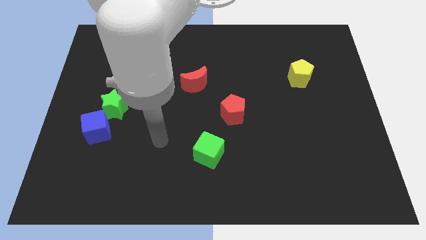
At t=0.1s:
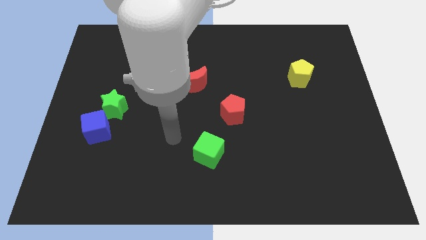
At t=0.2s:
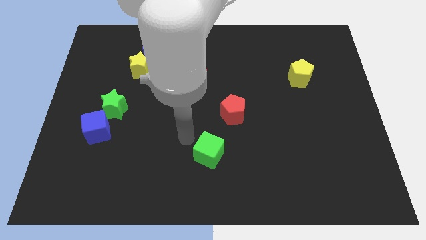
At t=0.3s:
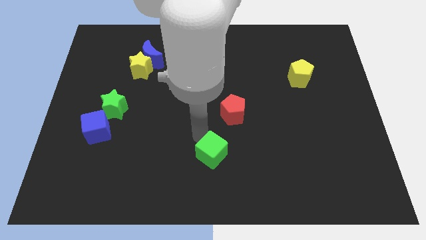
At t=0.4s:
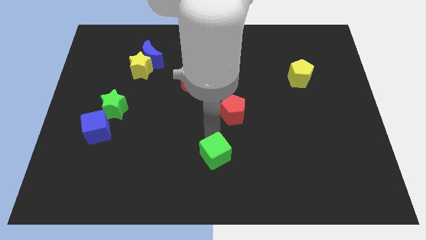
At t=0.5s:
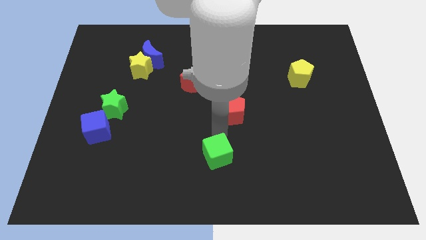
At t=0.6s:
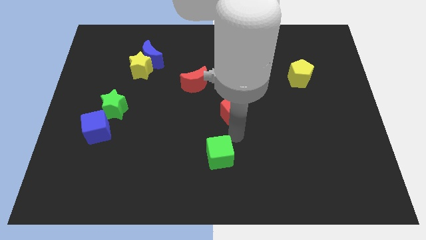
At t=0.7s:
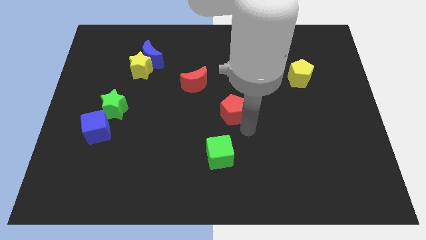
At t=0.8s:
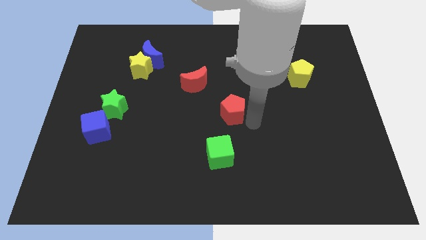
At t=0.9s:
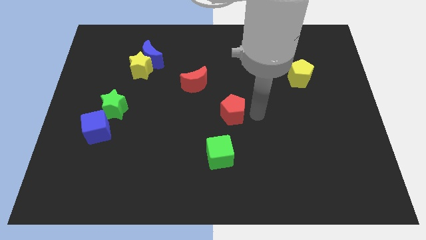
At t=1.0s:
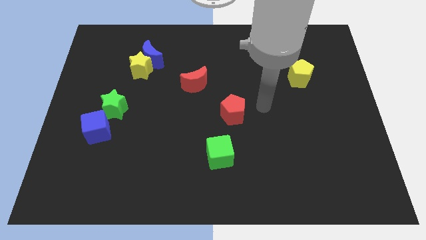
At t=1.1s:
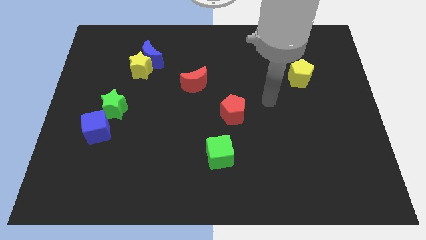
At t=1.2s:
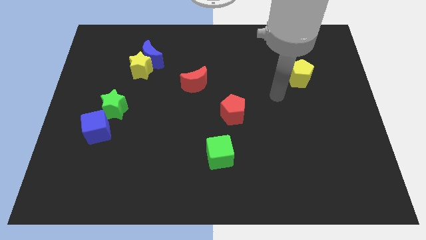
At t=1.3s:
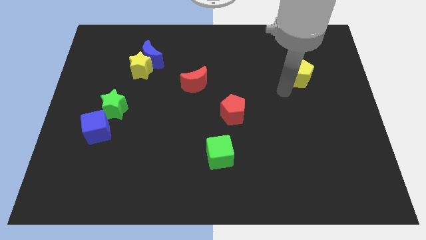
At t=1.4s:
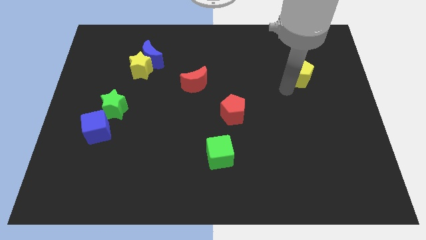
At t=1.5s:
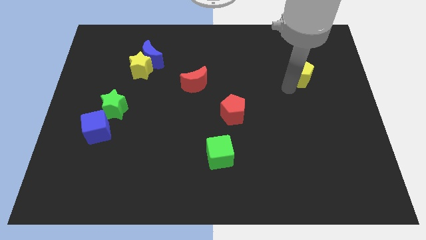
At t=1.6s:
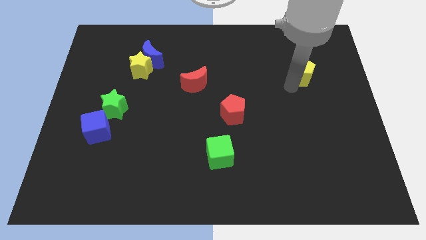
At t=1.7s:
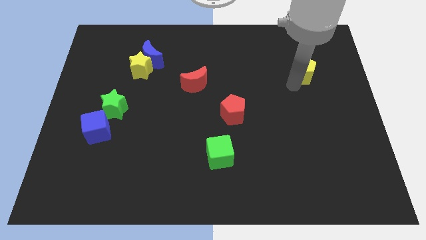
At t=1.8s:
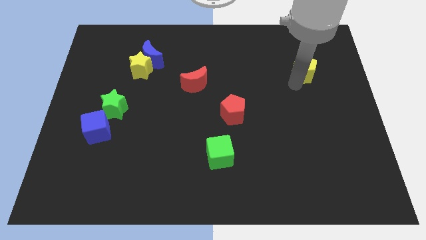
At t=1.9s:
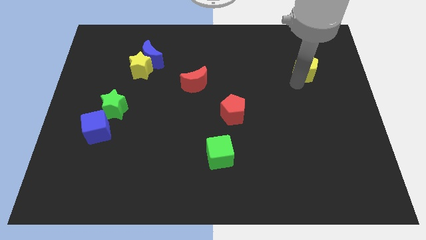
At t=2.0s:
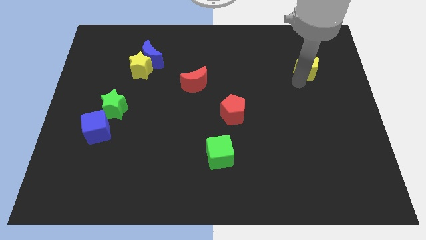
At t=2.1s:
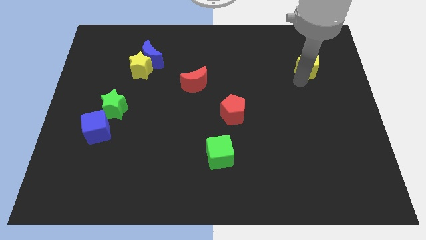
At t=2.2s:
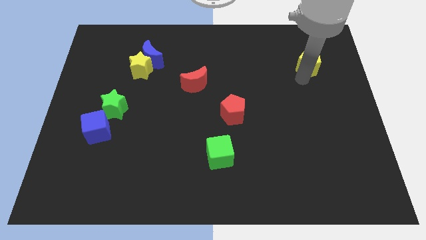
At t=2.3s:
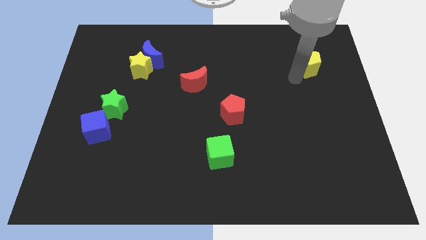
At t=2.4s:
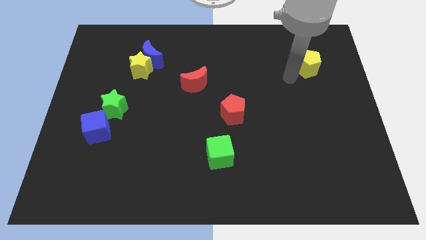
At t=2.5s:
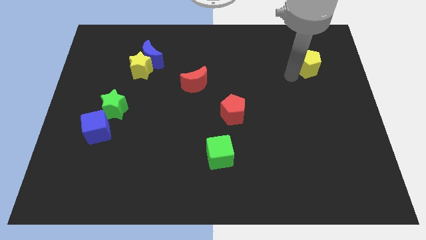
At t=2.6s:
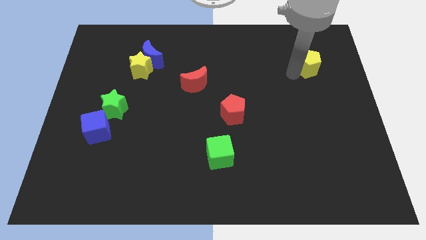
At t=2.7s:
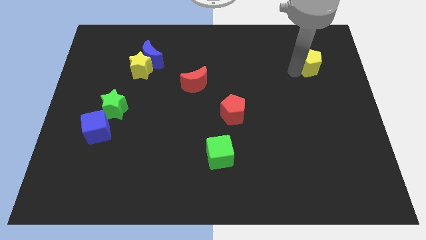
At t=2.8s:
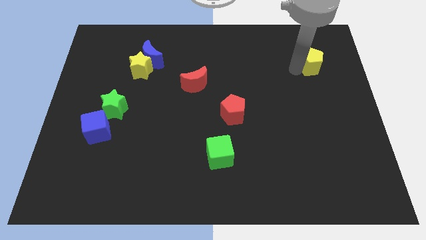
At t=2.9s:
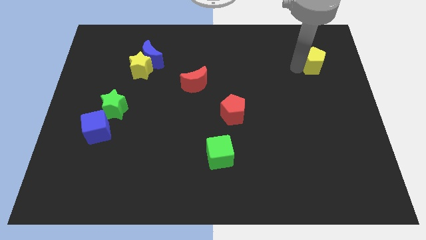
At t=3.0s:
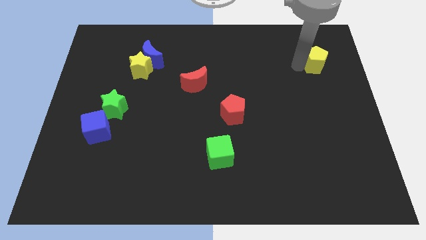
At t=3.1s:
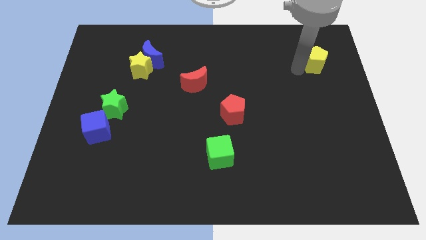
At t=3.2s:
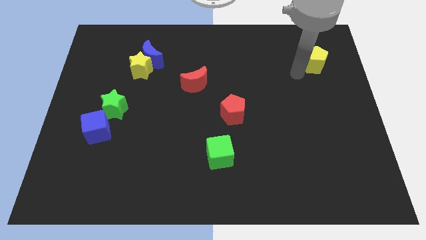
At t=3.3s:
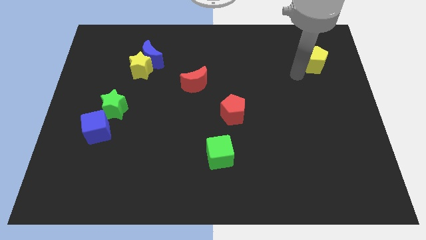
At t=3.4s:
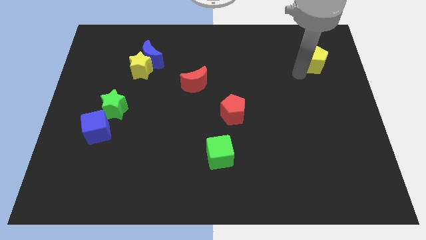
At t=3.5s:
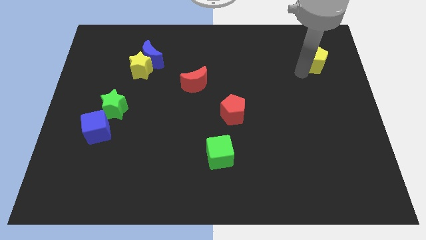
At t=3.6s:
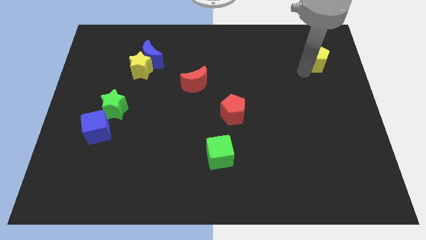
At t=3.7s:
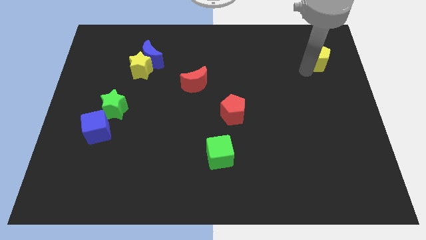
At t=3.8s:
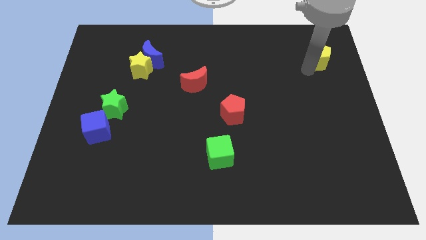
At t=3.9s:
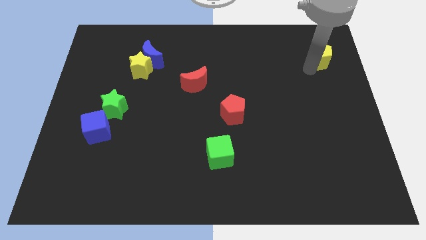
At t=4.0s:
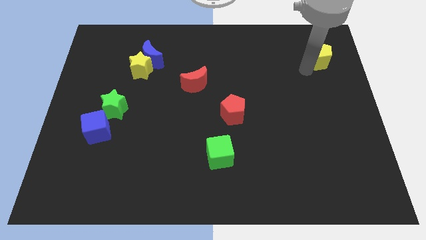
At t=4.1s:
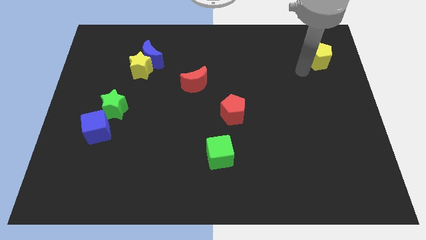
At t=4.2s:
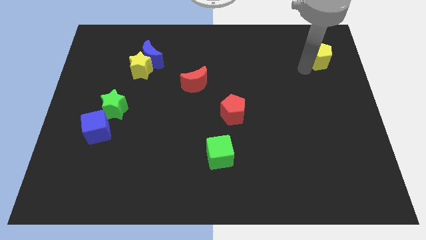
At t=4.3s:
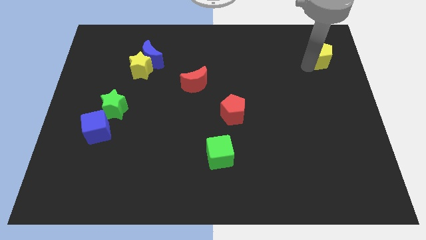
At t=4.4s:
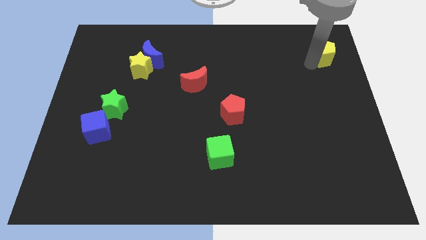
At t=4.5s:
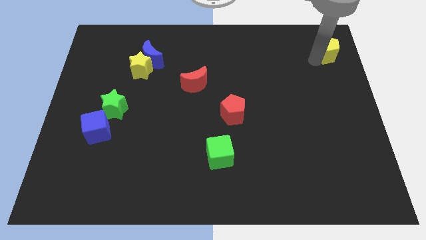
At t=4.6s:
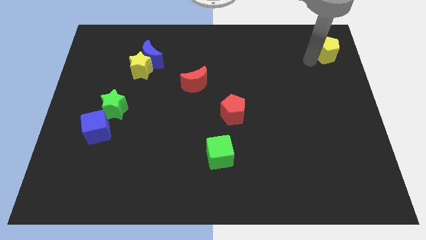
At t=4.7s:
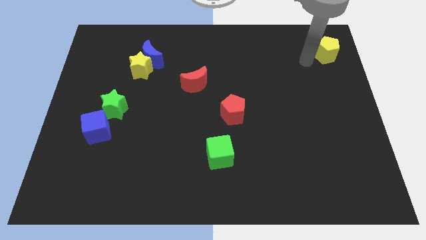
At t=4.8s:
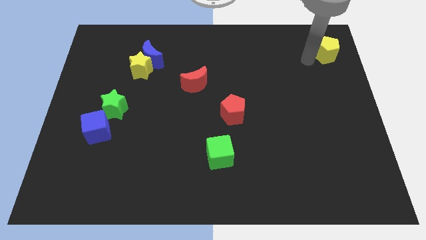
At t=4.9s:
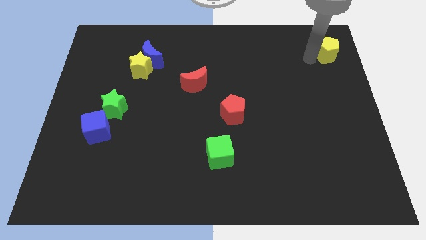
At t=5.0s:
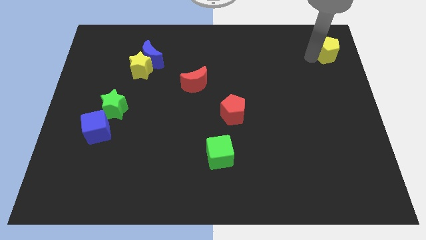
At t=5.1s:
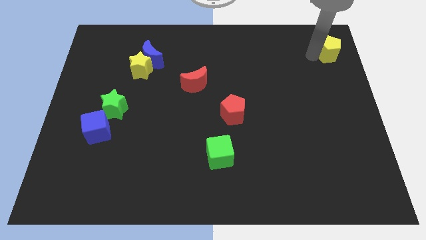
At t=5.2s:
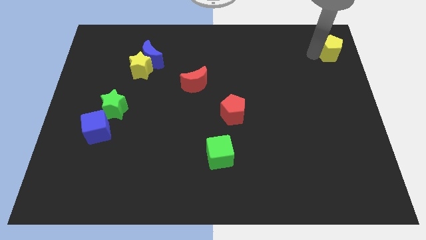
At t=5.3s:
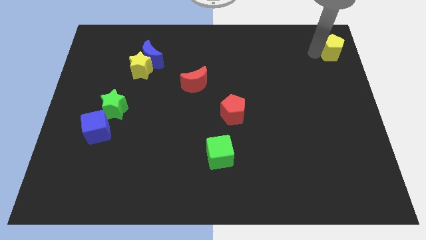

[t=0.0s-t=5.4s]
slide the yellow pentagon to the top right

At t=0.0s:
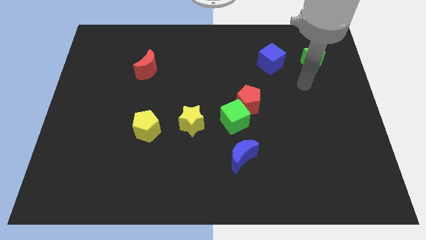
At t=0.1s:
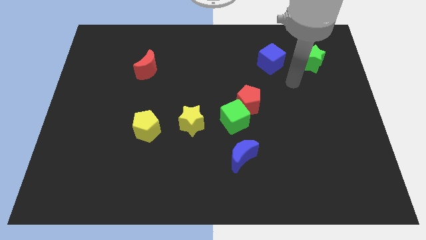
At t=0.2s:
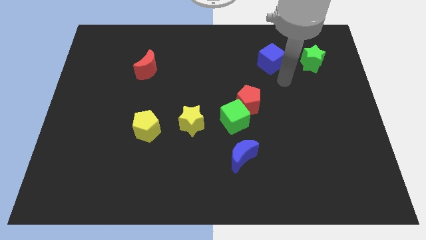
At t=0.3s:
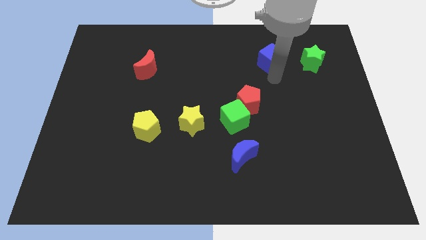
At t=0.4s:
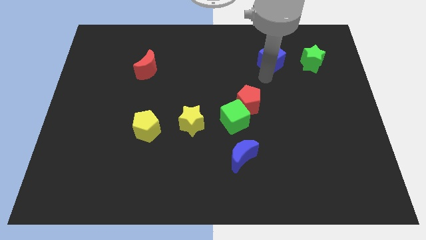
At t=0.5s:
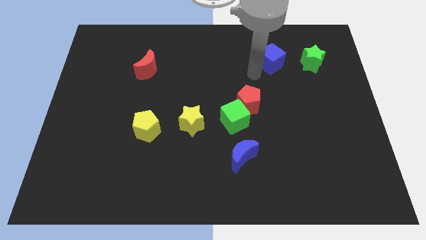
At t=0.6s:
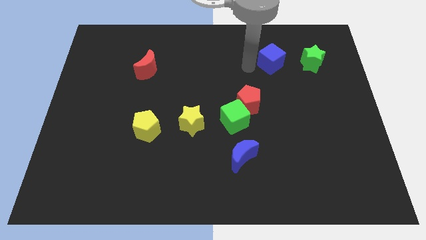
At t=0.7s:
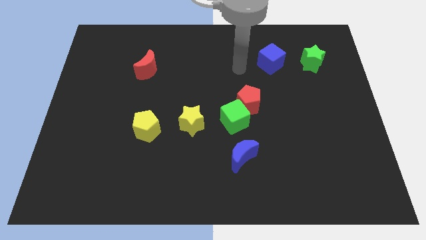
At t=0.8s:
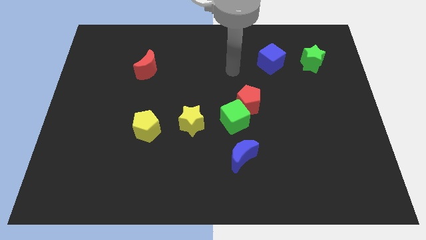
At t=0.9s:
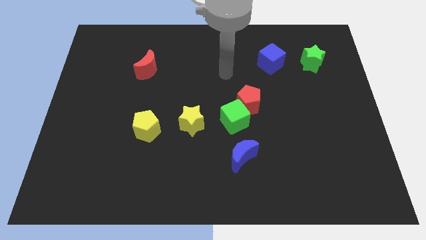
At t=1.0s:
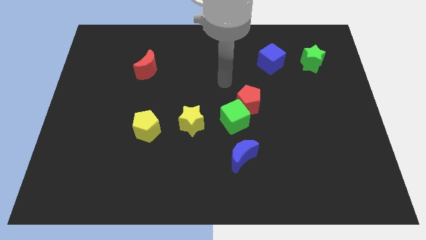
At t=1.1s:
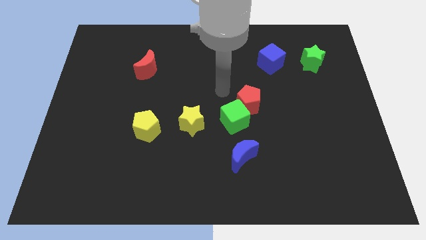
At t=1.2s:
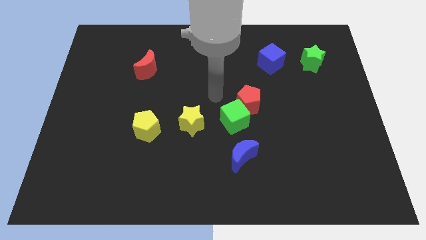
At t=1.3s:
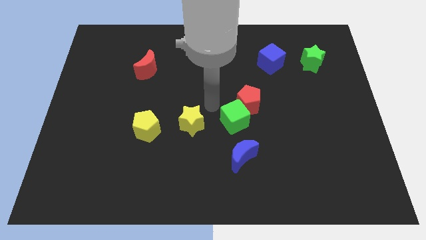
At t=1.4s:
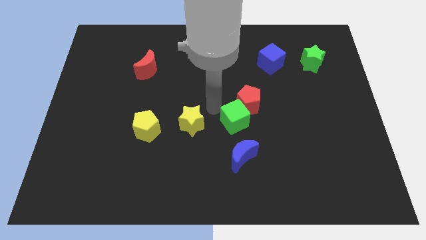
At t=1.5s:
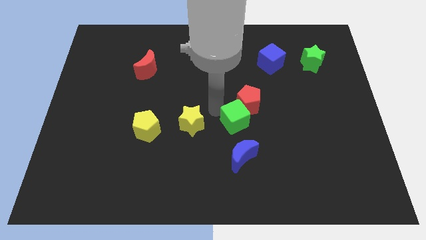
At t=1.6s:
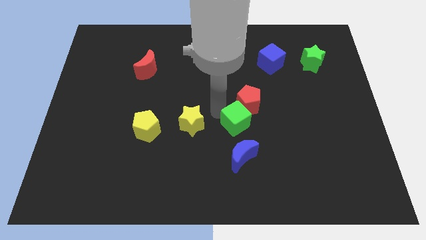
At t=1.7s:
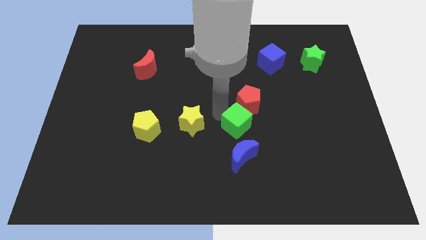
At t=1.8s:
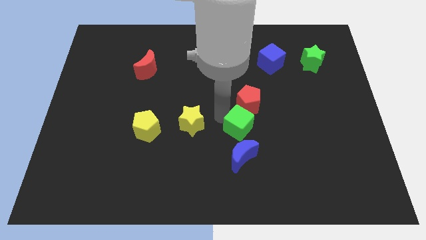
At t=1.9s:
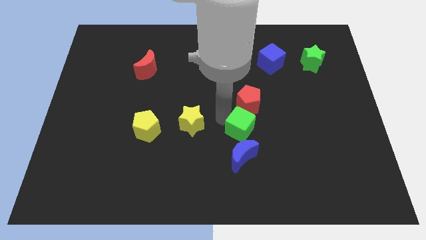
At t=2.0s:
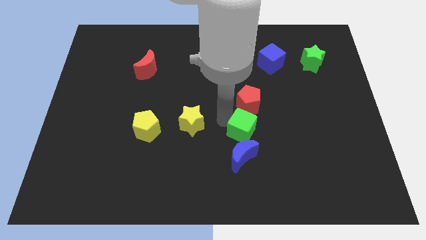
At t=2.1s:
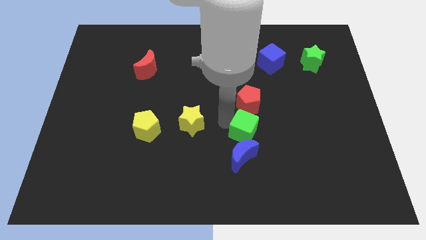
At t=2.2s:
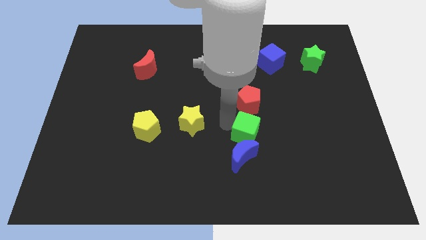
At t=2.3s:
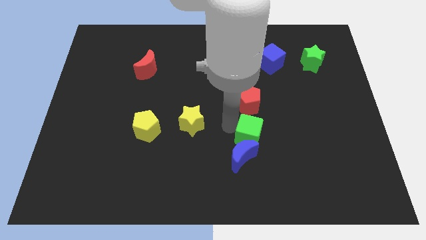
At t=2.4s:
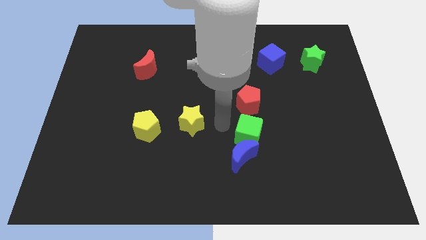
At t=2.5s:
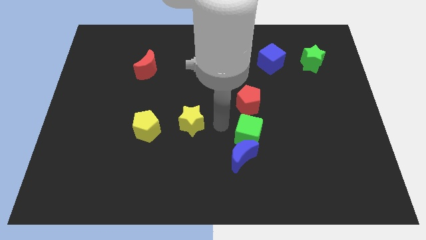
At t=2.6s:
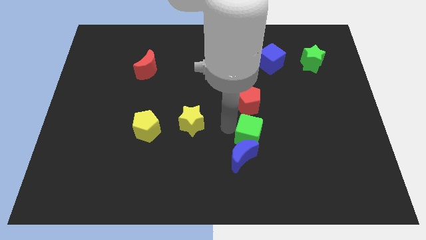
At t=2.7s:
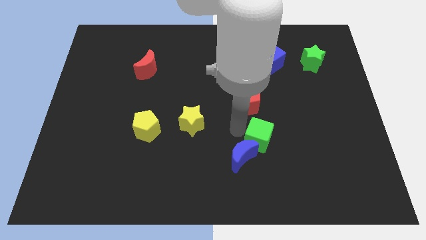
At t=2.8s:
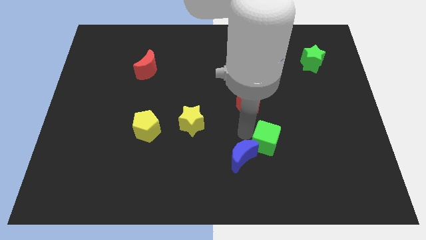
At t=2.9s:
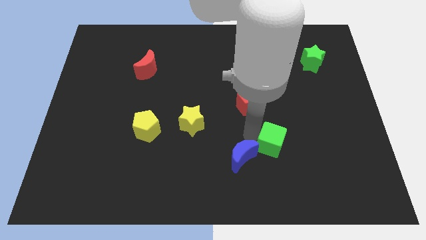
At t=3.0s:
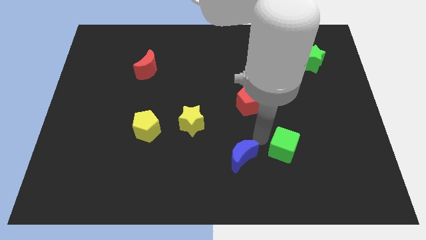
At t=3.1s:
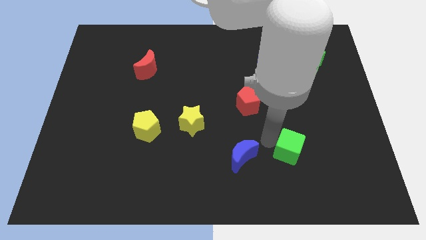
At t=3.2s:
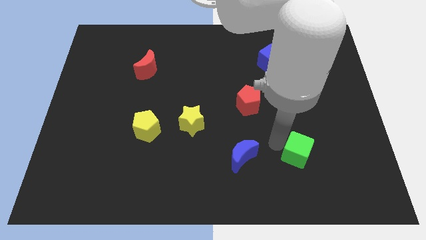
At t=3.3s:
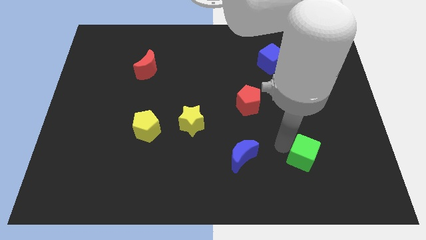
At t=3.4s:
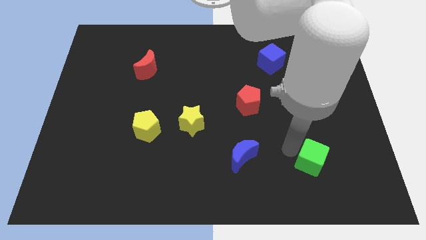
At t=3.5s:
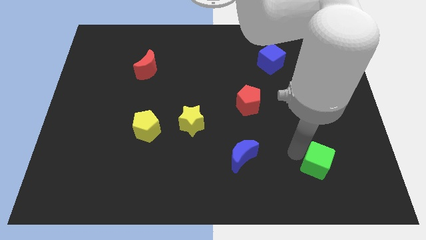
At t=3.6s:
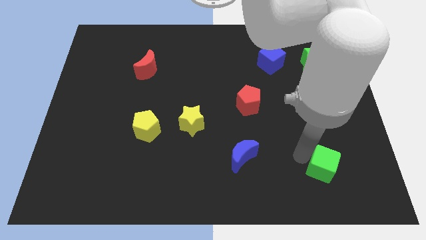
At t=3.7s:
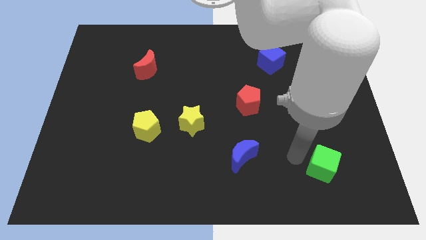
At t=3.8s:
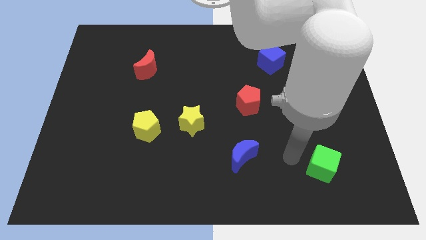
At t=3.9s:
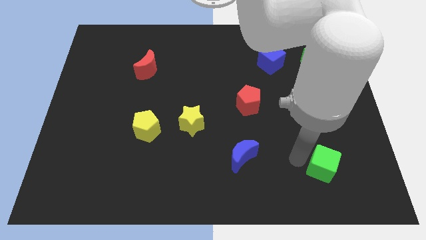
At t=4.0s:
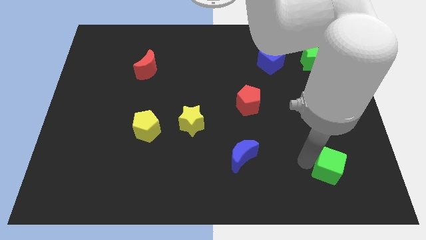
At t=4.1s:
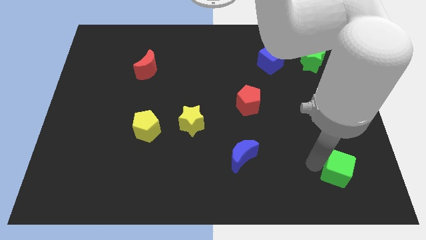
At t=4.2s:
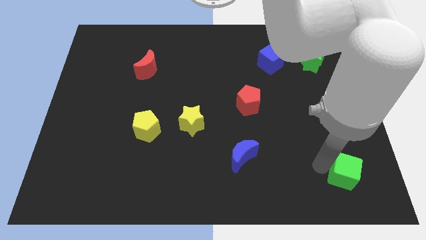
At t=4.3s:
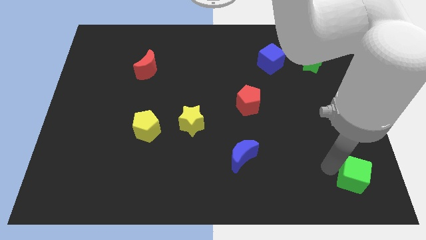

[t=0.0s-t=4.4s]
slide the green cube to the bottom right
